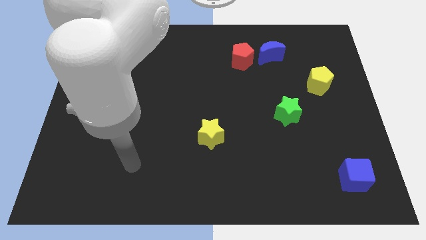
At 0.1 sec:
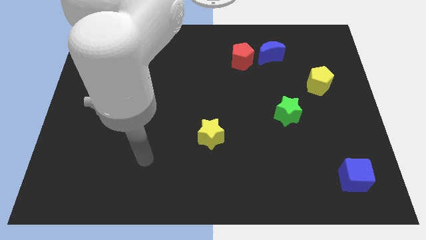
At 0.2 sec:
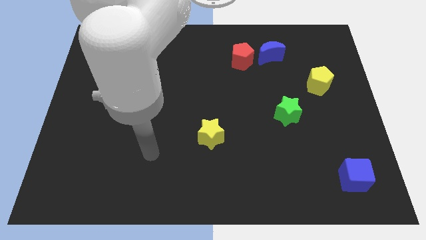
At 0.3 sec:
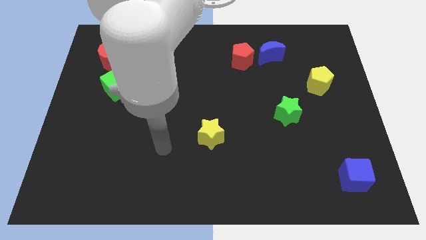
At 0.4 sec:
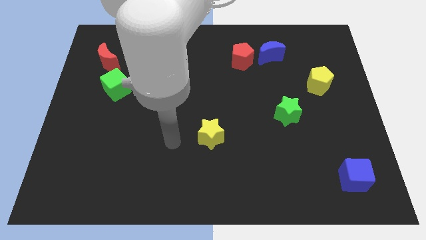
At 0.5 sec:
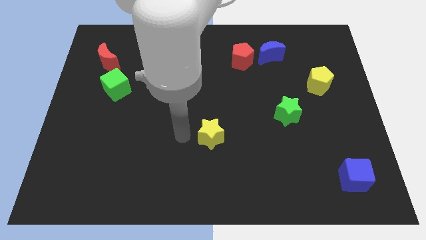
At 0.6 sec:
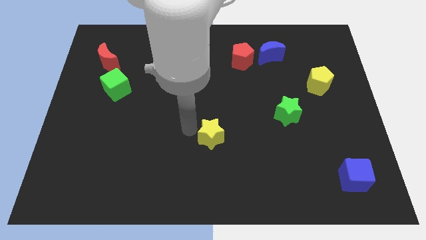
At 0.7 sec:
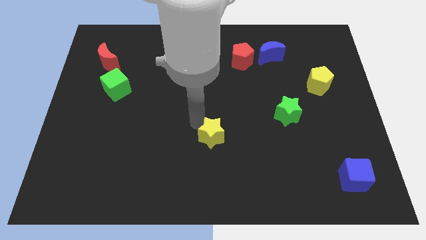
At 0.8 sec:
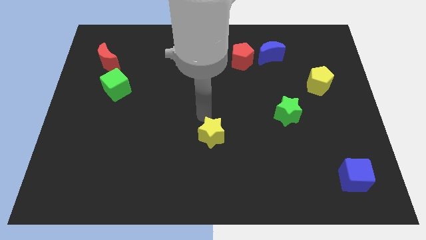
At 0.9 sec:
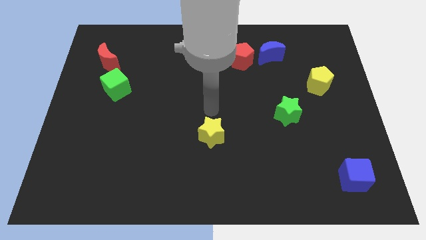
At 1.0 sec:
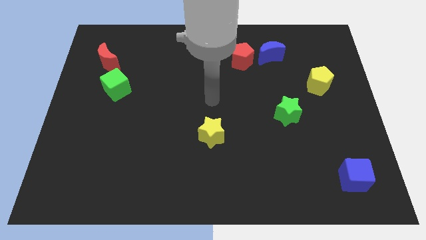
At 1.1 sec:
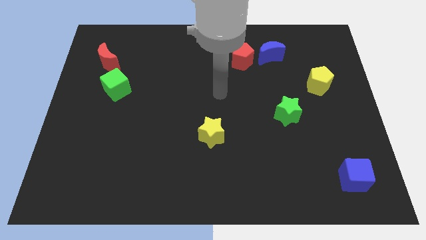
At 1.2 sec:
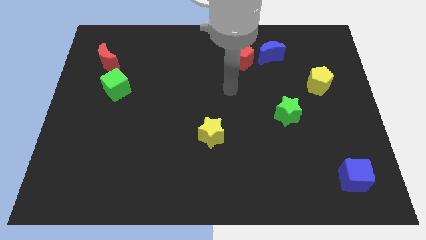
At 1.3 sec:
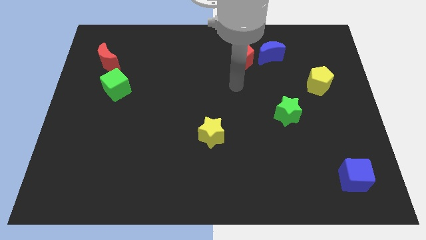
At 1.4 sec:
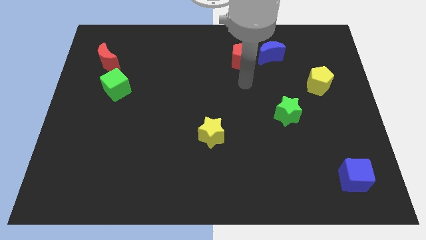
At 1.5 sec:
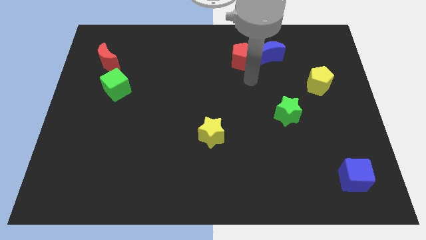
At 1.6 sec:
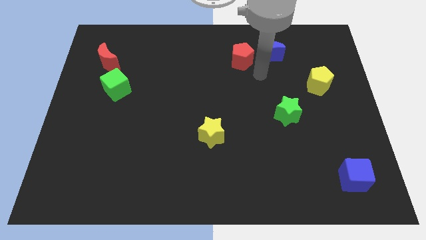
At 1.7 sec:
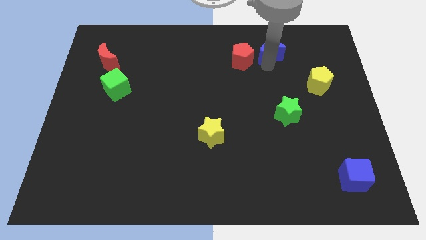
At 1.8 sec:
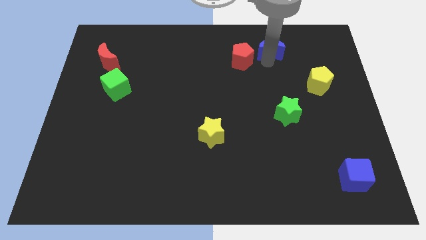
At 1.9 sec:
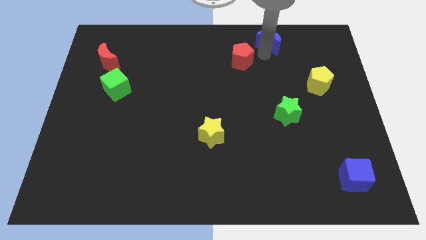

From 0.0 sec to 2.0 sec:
separate the red pentagon from the blue moon

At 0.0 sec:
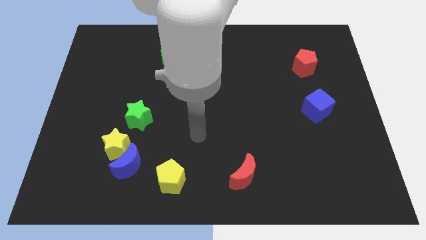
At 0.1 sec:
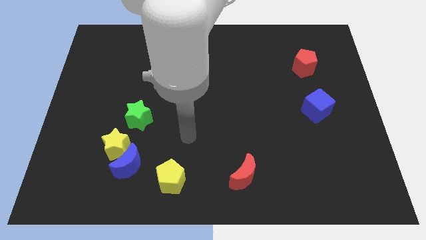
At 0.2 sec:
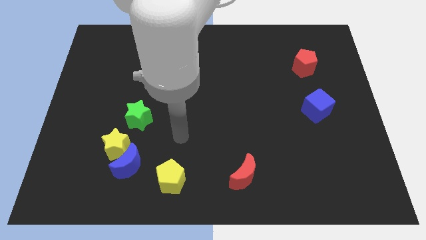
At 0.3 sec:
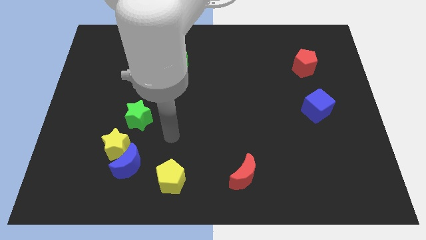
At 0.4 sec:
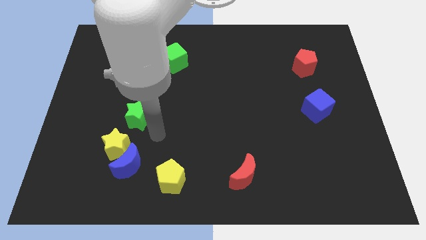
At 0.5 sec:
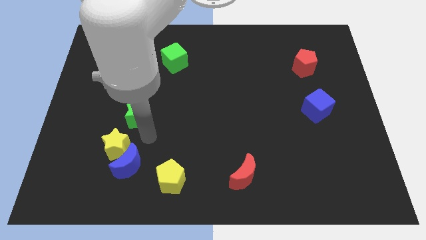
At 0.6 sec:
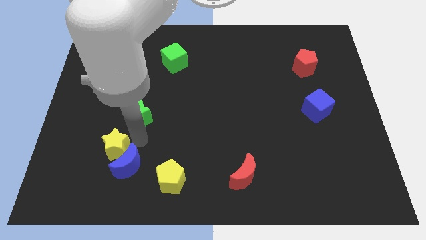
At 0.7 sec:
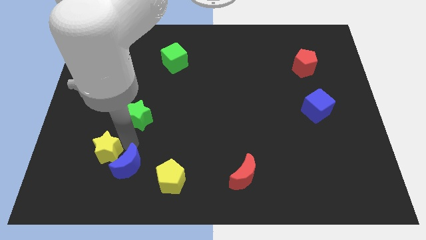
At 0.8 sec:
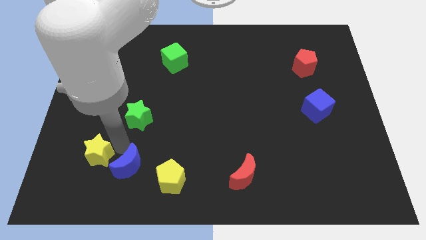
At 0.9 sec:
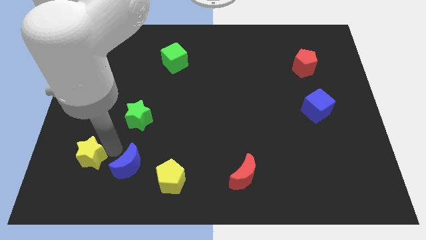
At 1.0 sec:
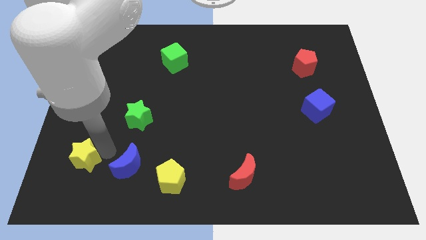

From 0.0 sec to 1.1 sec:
separate the yellow star from the blue moon and green star

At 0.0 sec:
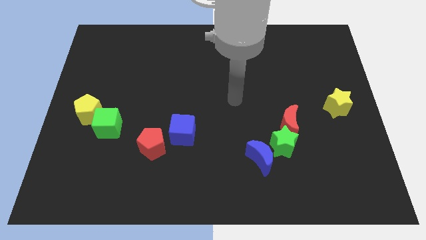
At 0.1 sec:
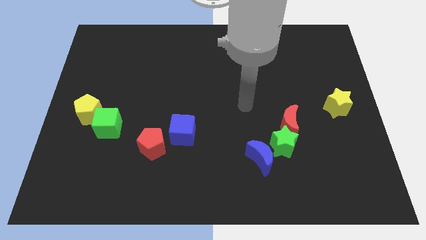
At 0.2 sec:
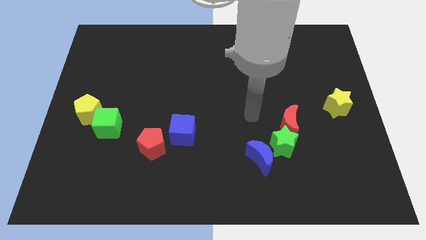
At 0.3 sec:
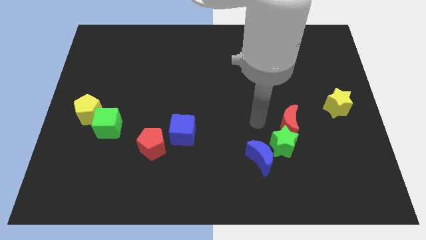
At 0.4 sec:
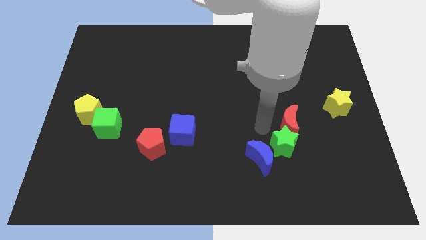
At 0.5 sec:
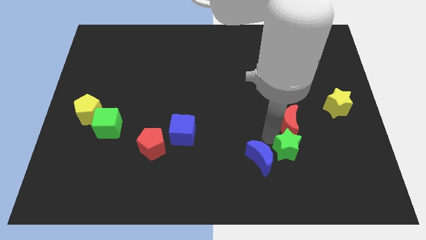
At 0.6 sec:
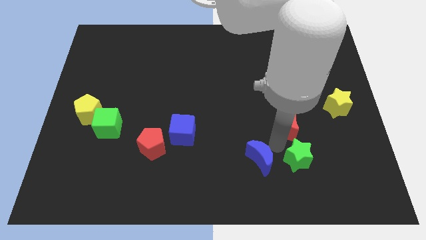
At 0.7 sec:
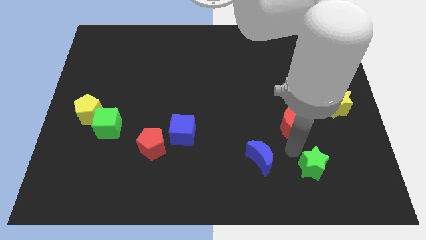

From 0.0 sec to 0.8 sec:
separate the red moon from the green star

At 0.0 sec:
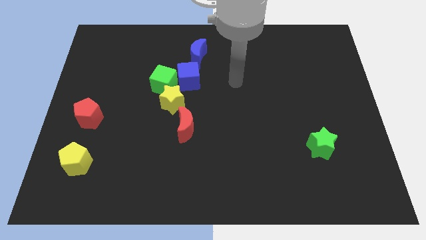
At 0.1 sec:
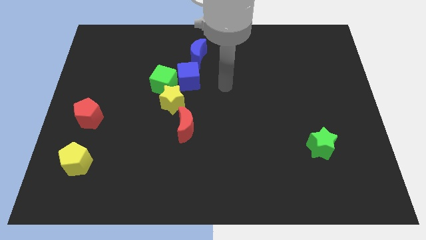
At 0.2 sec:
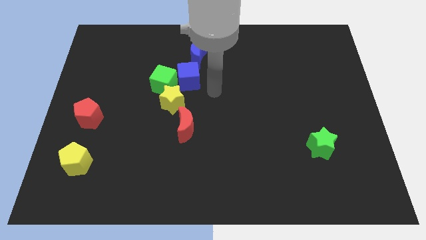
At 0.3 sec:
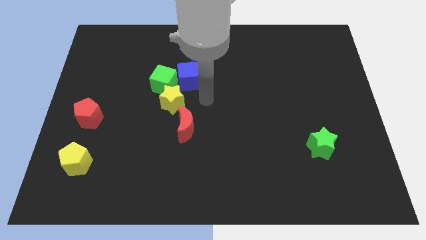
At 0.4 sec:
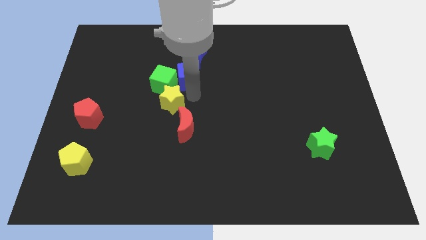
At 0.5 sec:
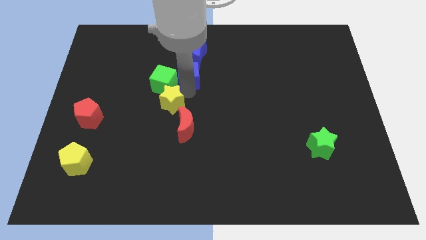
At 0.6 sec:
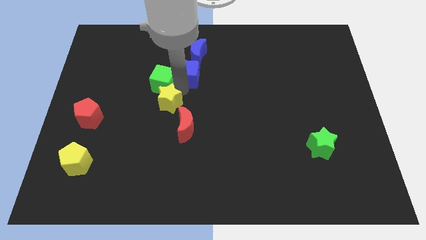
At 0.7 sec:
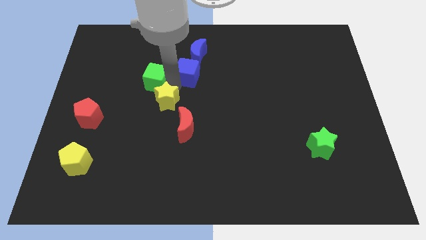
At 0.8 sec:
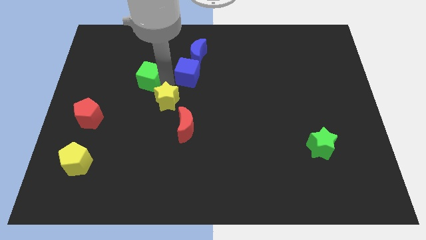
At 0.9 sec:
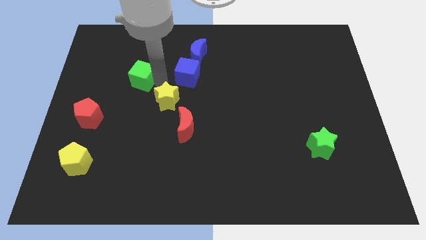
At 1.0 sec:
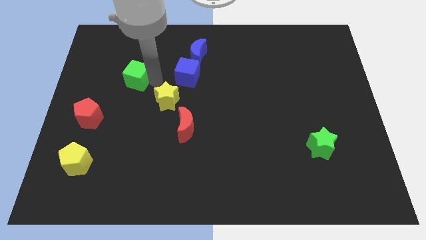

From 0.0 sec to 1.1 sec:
pull the green cube apart from the blue cube and yellow star

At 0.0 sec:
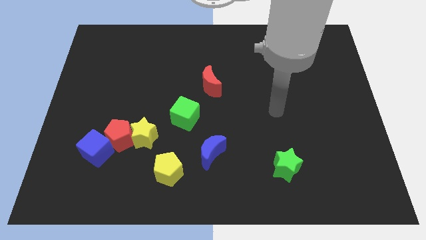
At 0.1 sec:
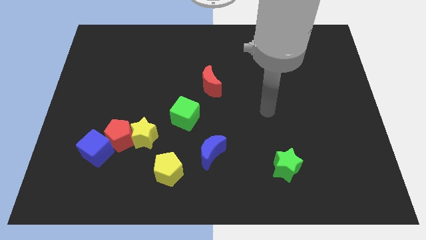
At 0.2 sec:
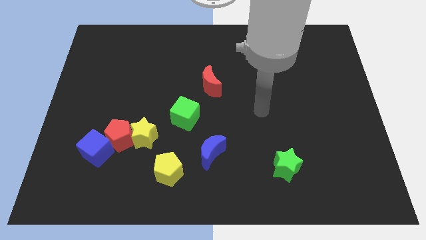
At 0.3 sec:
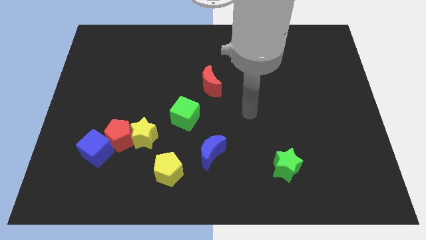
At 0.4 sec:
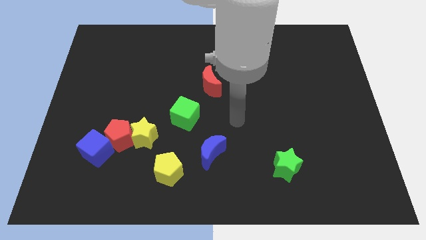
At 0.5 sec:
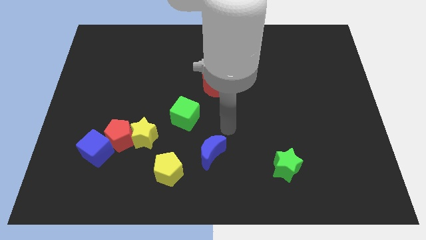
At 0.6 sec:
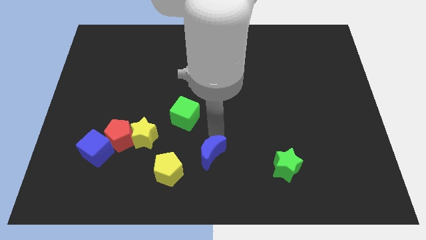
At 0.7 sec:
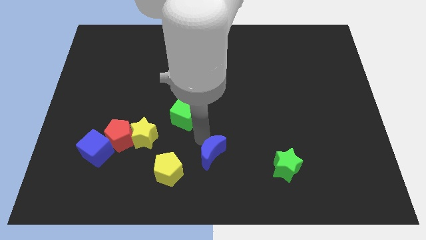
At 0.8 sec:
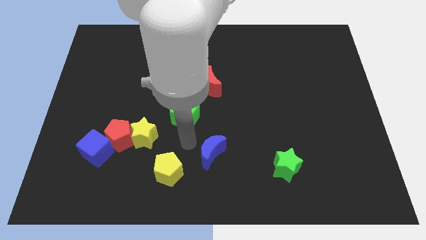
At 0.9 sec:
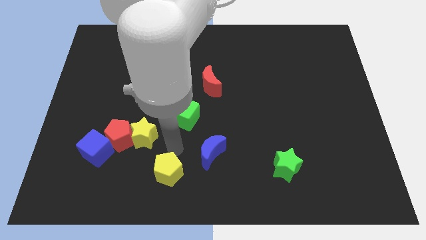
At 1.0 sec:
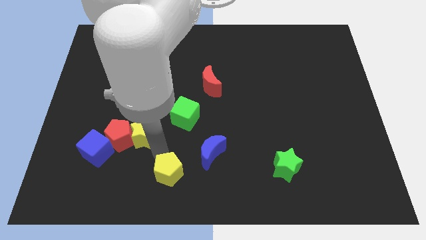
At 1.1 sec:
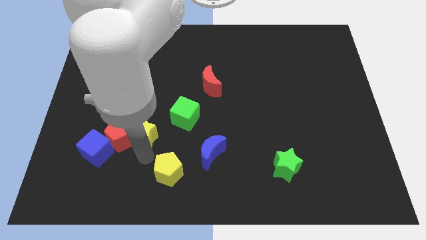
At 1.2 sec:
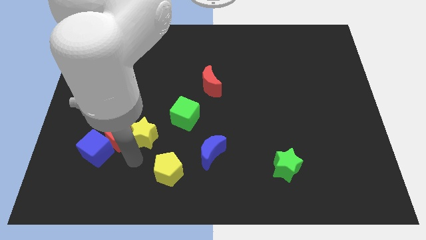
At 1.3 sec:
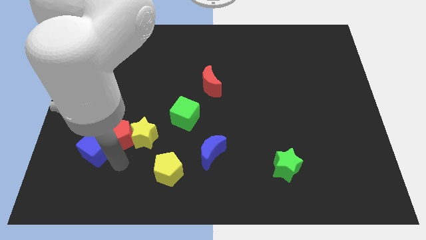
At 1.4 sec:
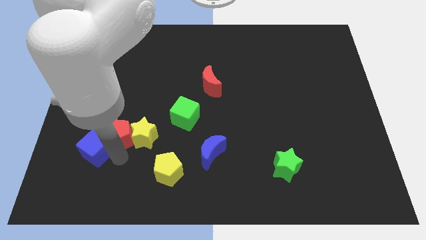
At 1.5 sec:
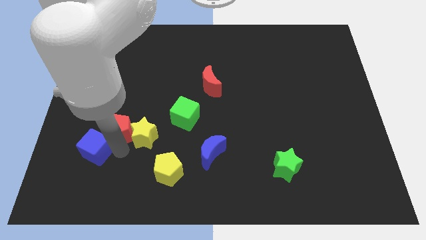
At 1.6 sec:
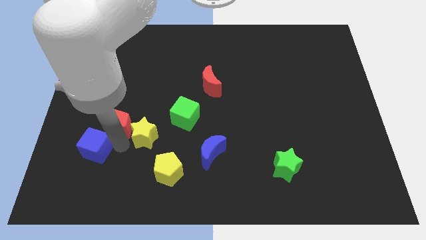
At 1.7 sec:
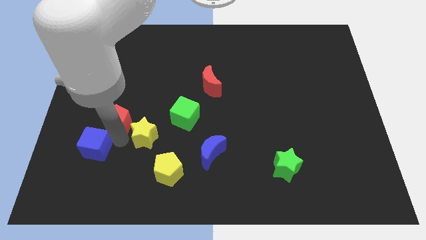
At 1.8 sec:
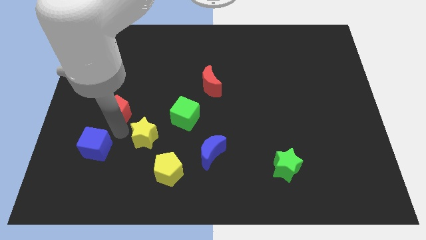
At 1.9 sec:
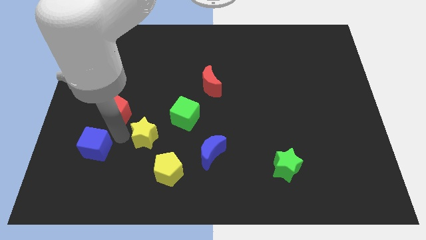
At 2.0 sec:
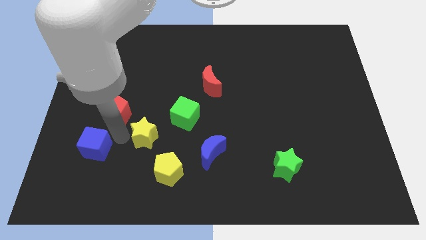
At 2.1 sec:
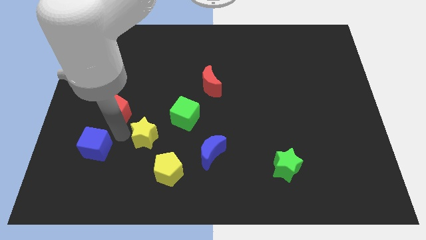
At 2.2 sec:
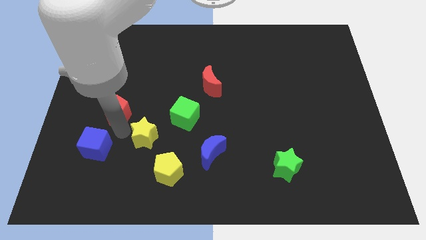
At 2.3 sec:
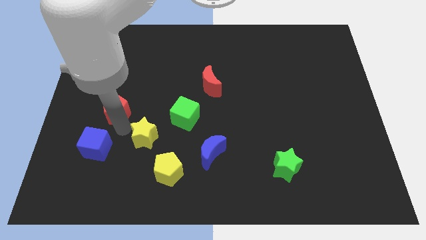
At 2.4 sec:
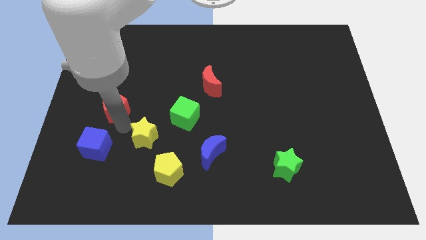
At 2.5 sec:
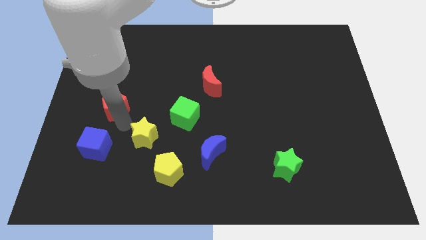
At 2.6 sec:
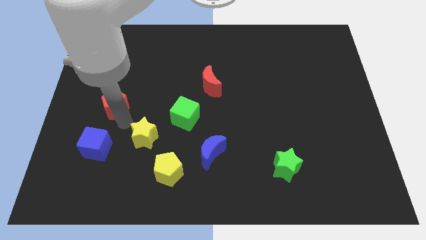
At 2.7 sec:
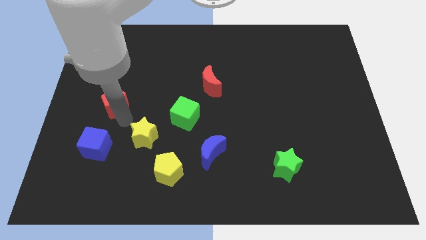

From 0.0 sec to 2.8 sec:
separate the red pentagon from the yellow star and blue cube

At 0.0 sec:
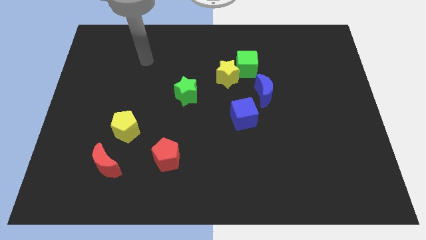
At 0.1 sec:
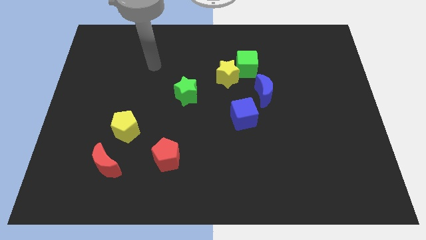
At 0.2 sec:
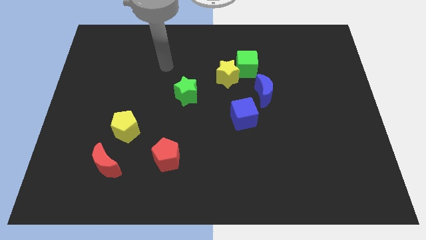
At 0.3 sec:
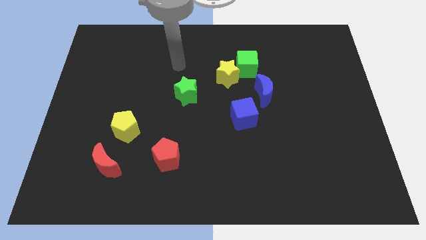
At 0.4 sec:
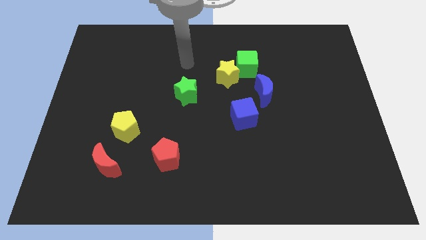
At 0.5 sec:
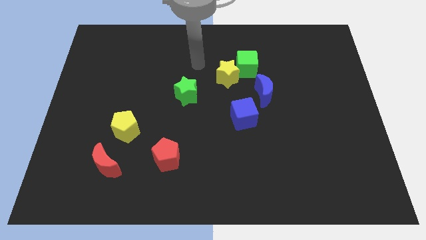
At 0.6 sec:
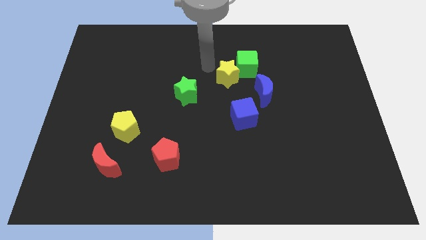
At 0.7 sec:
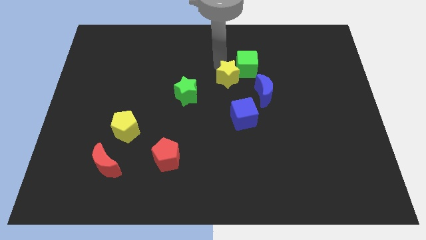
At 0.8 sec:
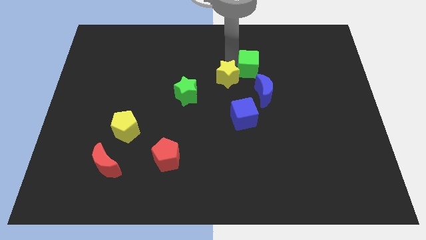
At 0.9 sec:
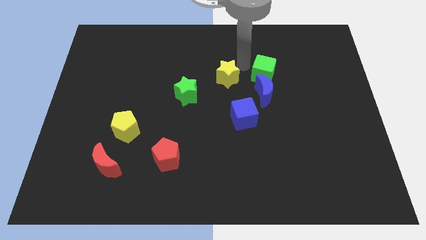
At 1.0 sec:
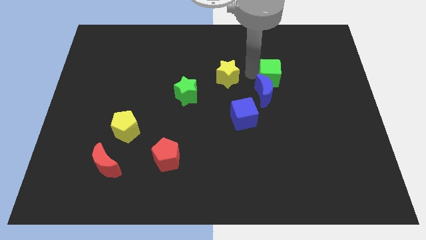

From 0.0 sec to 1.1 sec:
separate the yellow star from the green cube

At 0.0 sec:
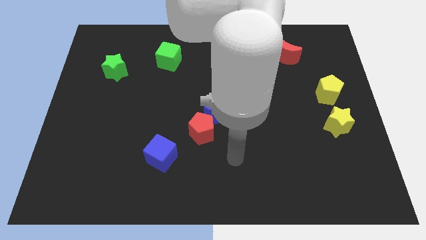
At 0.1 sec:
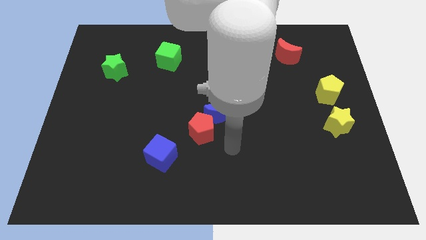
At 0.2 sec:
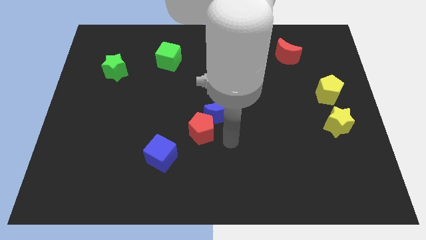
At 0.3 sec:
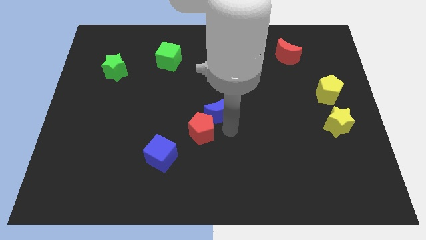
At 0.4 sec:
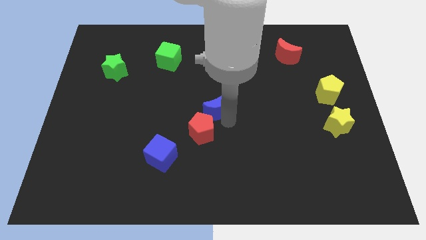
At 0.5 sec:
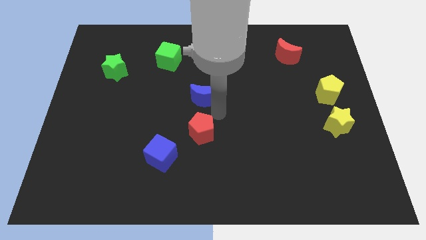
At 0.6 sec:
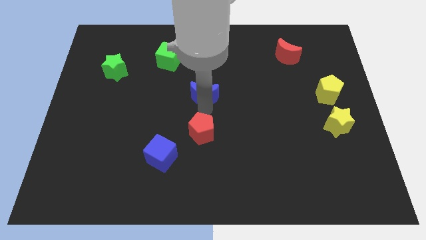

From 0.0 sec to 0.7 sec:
pull the red pentagon apart from the blue moon
